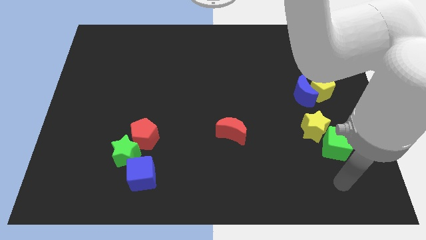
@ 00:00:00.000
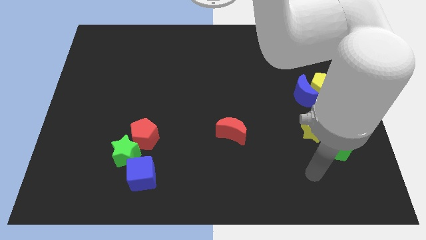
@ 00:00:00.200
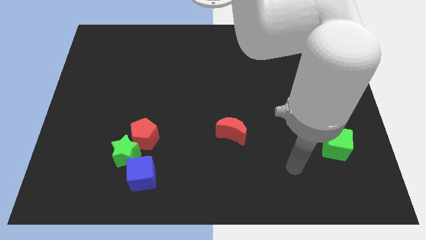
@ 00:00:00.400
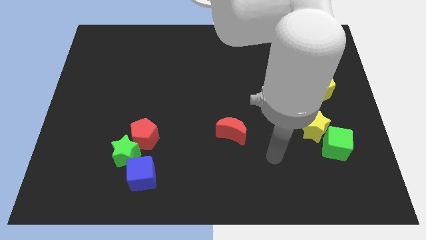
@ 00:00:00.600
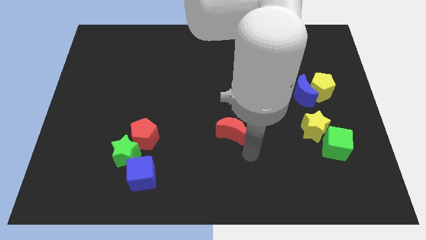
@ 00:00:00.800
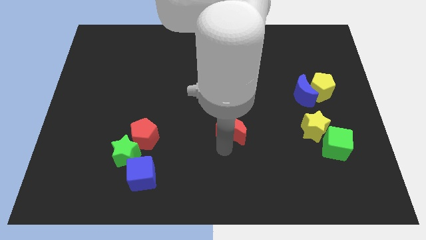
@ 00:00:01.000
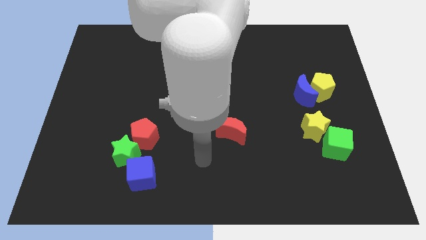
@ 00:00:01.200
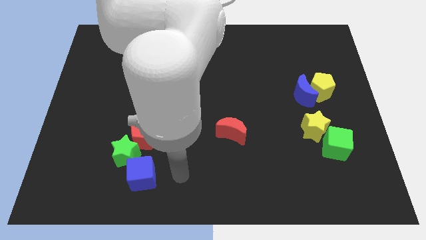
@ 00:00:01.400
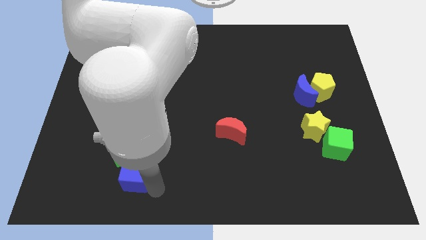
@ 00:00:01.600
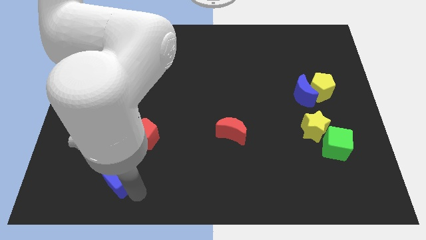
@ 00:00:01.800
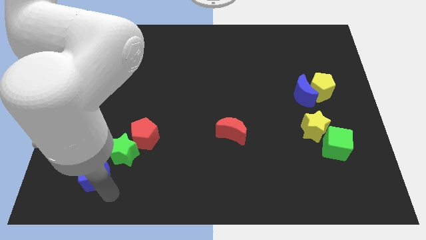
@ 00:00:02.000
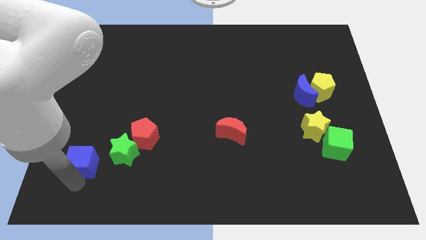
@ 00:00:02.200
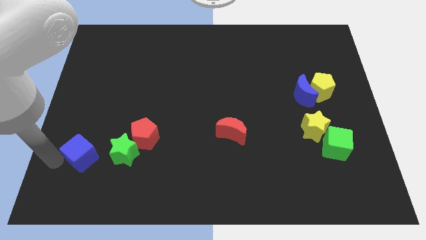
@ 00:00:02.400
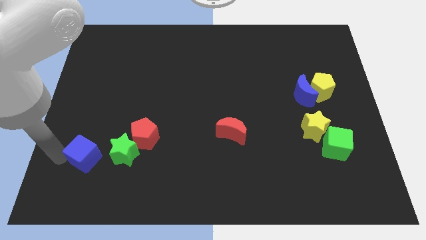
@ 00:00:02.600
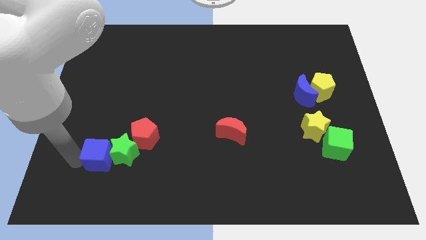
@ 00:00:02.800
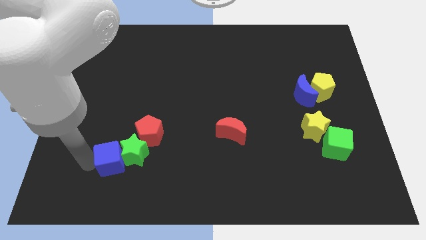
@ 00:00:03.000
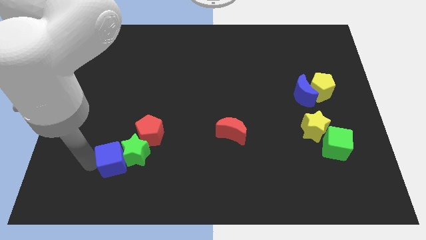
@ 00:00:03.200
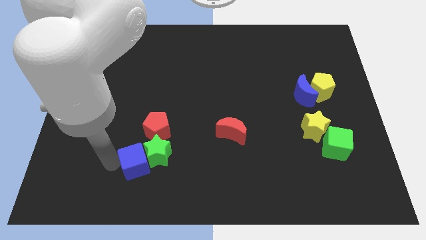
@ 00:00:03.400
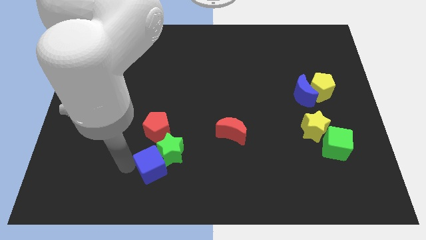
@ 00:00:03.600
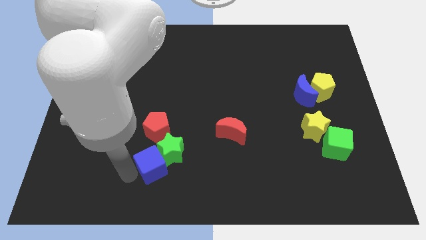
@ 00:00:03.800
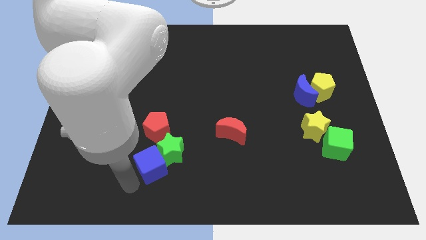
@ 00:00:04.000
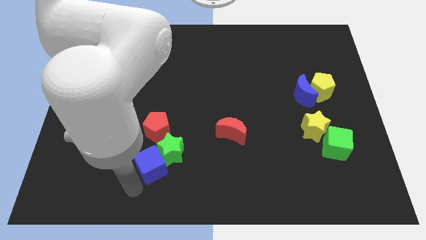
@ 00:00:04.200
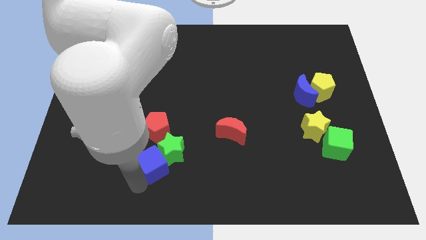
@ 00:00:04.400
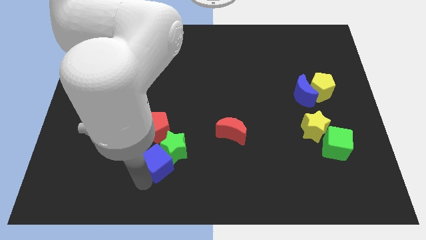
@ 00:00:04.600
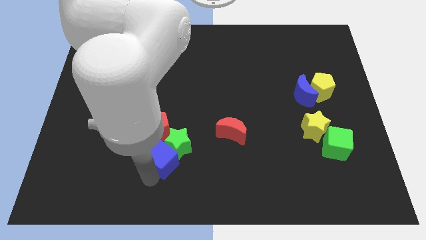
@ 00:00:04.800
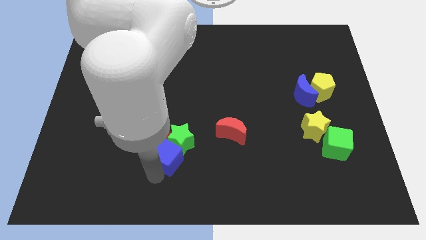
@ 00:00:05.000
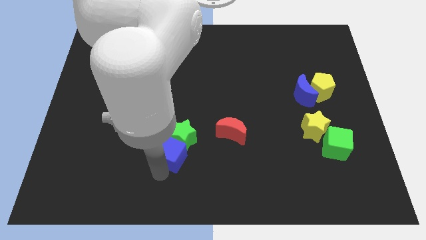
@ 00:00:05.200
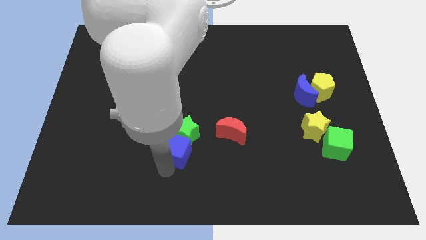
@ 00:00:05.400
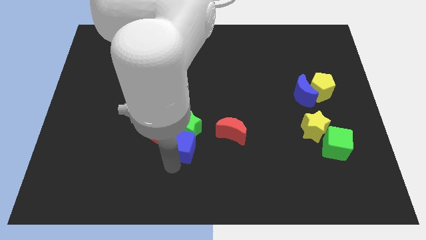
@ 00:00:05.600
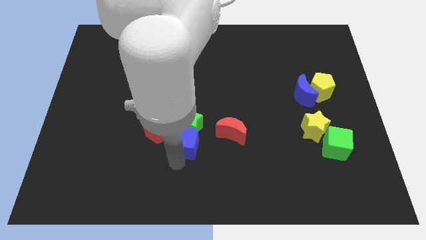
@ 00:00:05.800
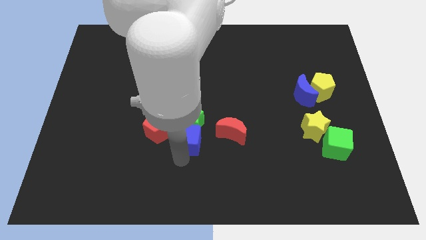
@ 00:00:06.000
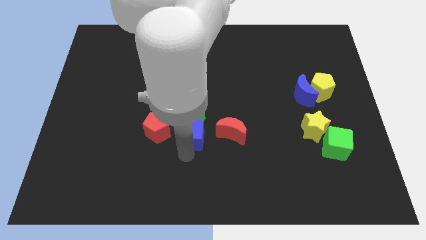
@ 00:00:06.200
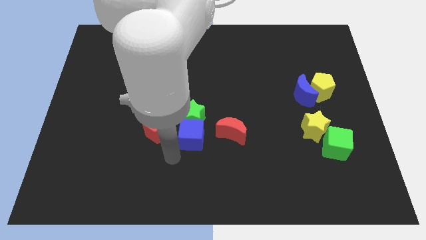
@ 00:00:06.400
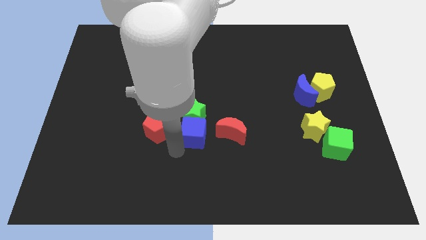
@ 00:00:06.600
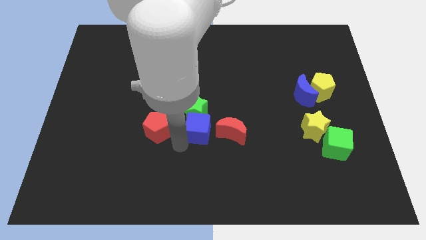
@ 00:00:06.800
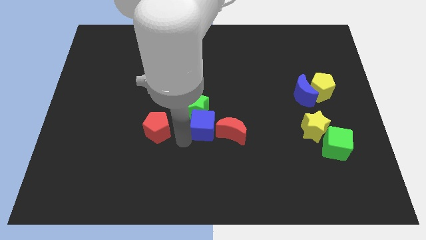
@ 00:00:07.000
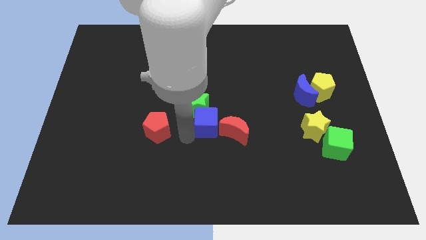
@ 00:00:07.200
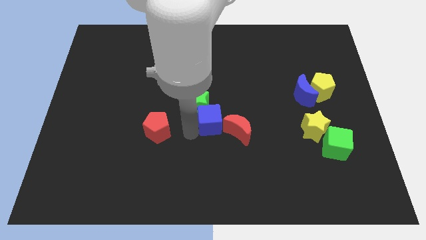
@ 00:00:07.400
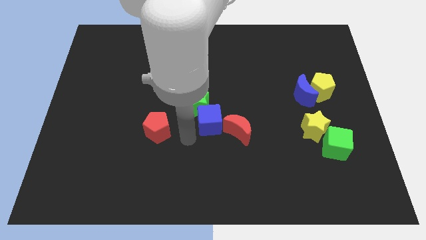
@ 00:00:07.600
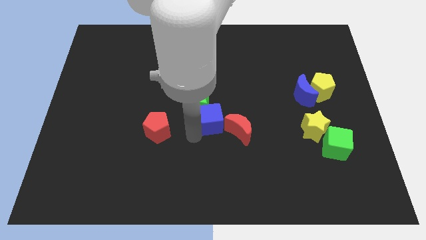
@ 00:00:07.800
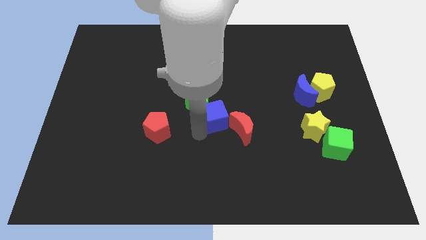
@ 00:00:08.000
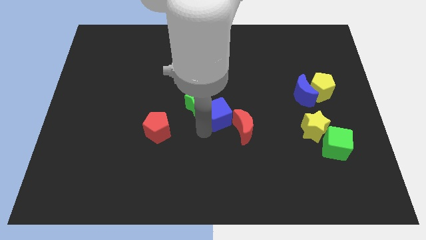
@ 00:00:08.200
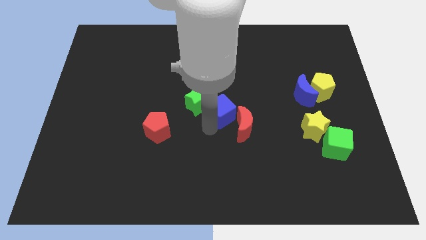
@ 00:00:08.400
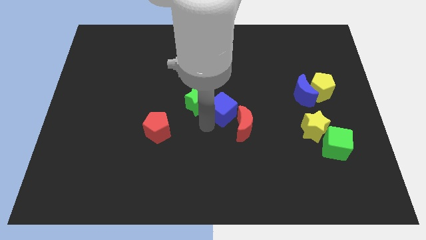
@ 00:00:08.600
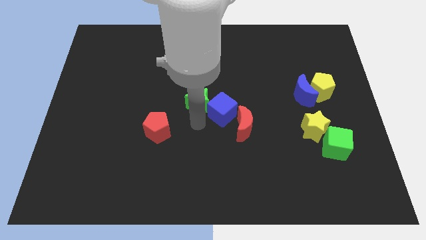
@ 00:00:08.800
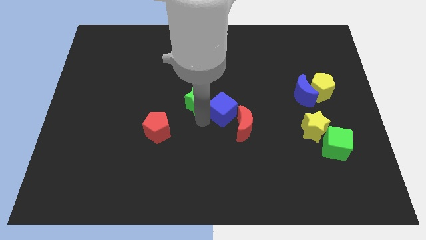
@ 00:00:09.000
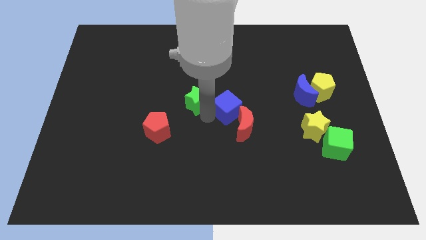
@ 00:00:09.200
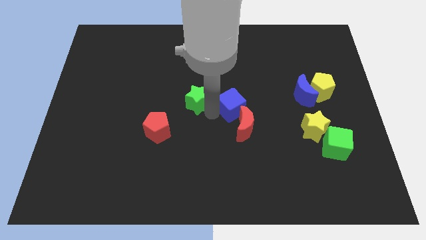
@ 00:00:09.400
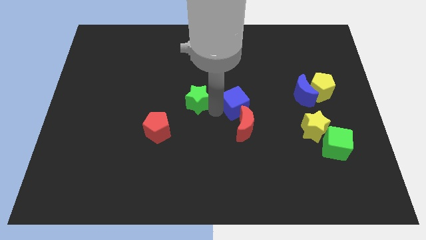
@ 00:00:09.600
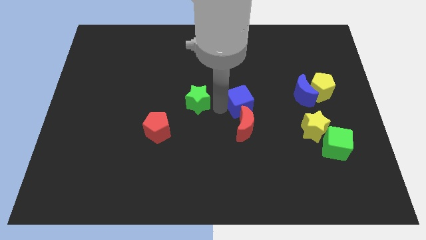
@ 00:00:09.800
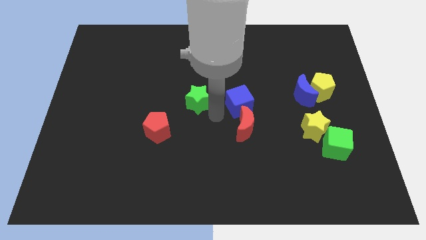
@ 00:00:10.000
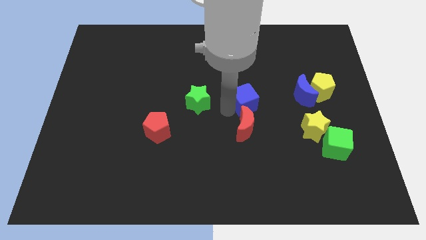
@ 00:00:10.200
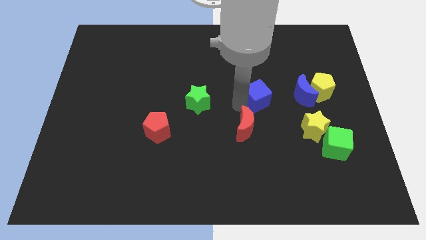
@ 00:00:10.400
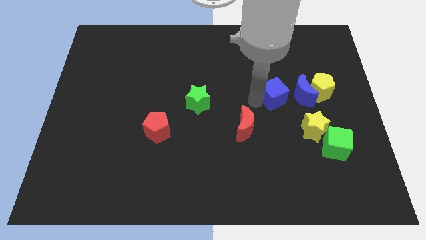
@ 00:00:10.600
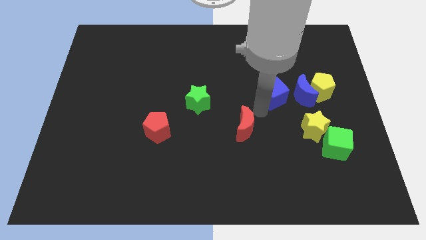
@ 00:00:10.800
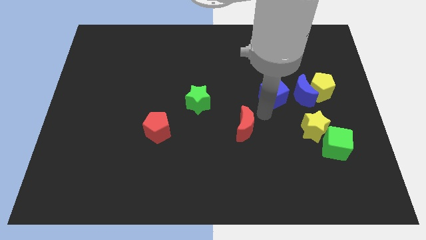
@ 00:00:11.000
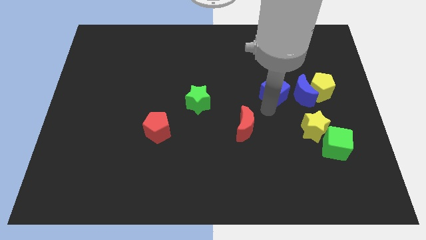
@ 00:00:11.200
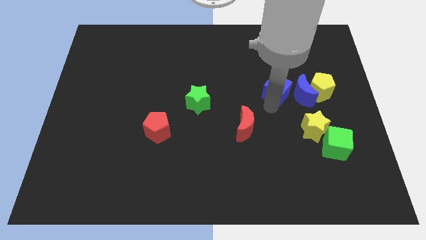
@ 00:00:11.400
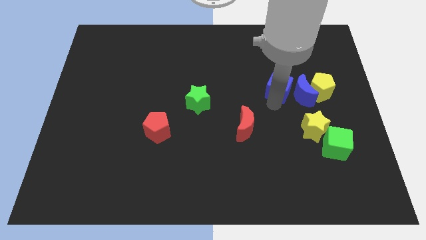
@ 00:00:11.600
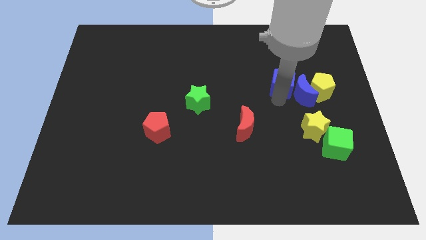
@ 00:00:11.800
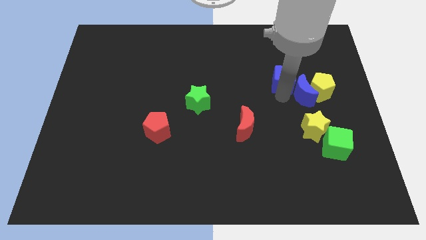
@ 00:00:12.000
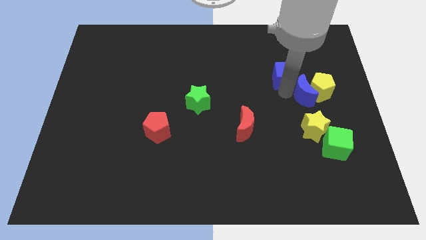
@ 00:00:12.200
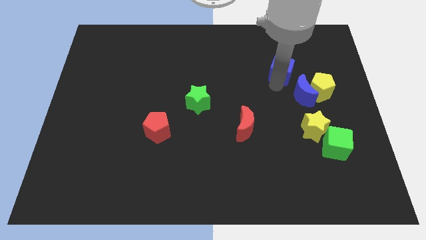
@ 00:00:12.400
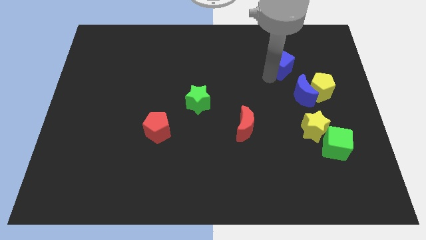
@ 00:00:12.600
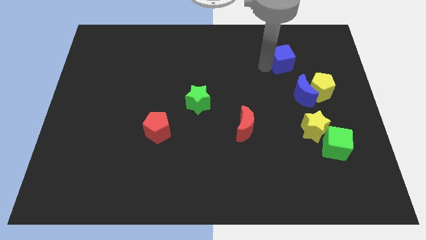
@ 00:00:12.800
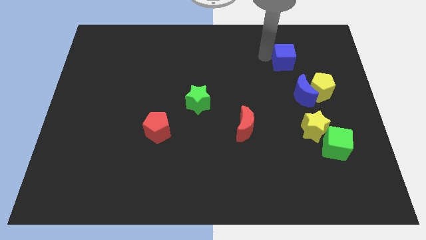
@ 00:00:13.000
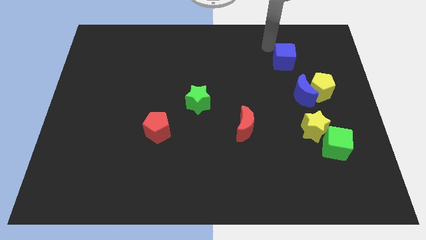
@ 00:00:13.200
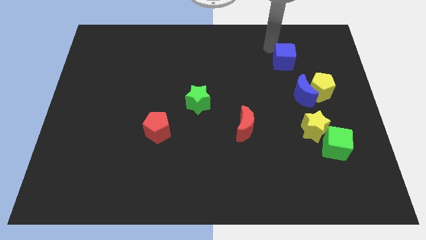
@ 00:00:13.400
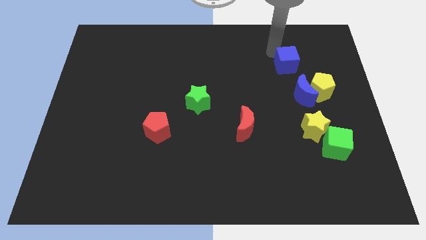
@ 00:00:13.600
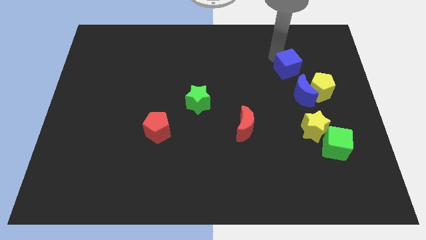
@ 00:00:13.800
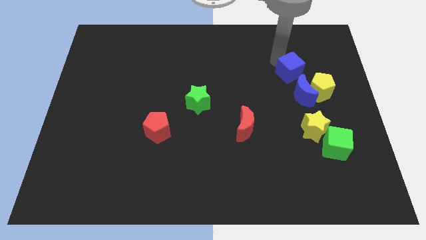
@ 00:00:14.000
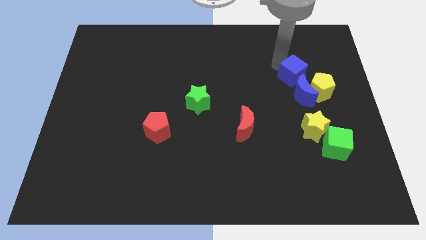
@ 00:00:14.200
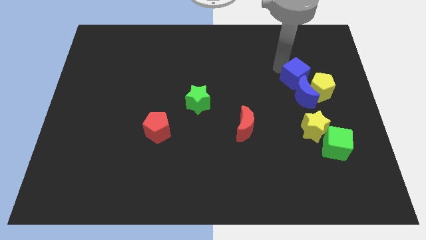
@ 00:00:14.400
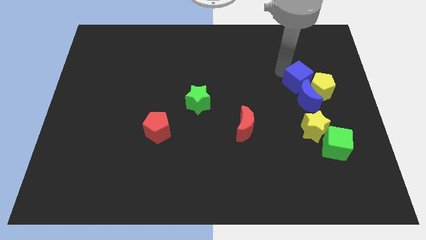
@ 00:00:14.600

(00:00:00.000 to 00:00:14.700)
put the blue cube next to the yellow pentagon
